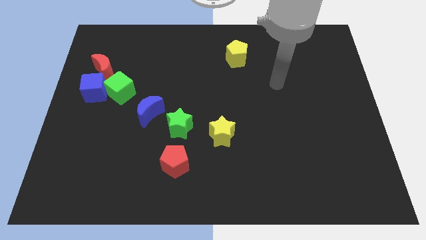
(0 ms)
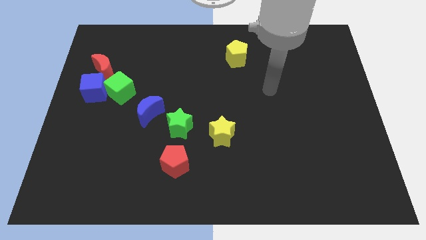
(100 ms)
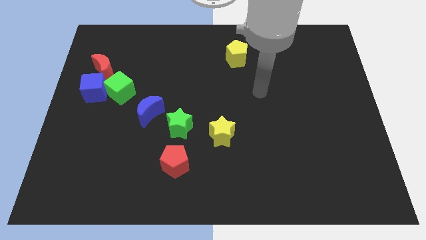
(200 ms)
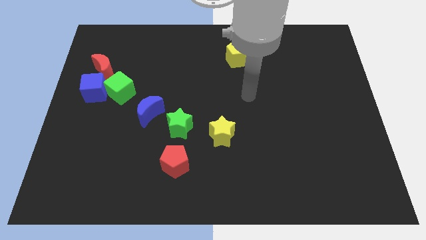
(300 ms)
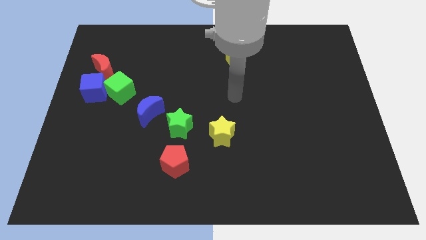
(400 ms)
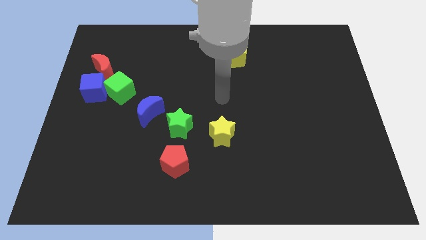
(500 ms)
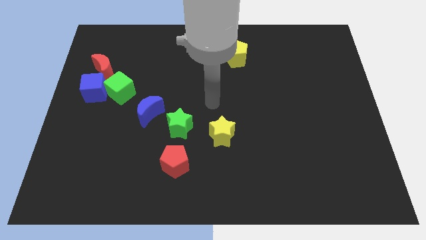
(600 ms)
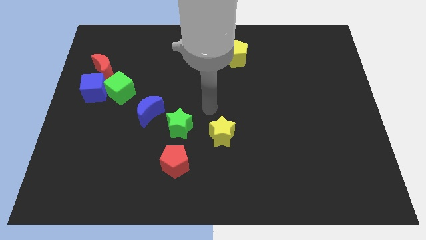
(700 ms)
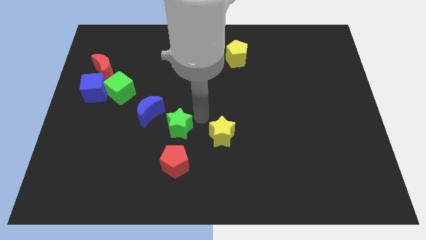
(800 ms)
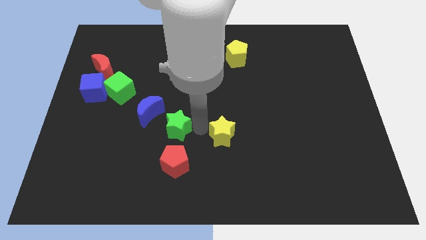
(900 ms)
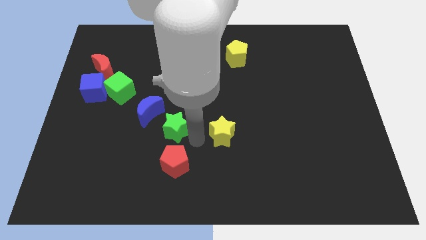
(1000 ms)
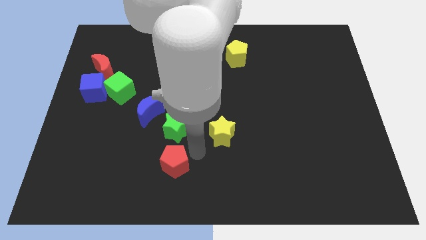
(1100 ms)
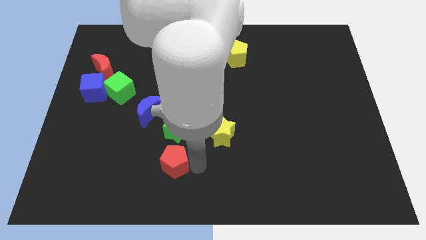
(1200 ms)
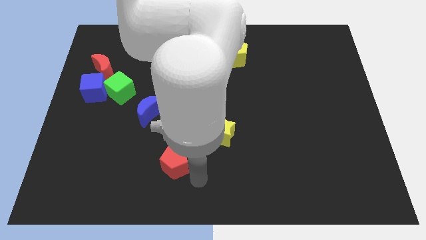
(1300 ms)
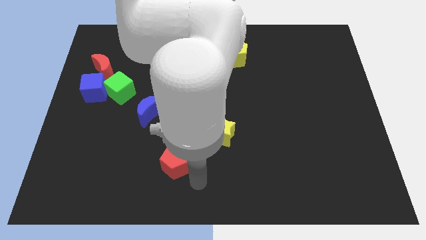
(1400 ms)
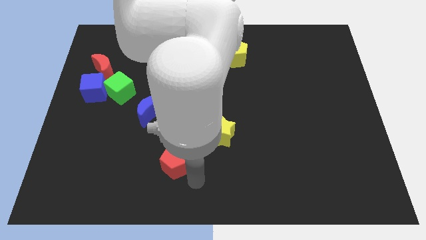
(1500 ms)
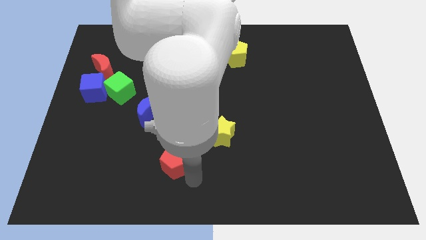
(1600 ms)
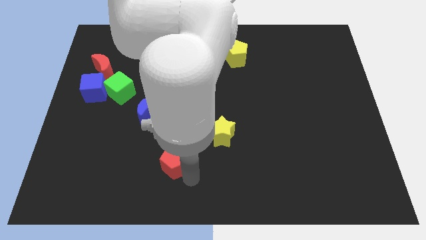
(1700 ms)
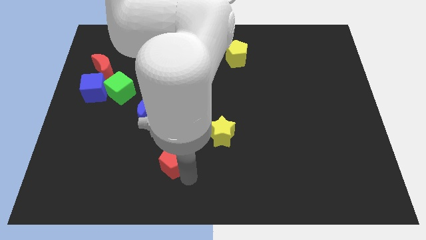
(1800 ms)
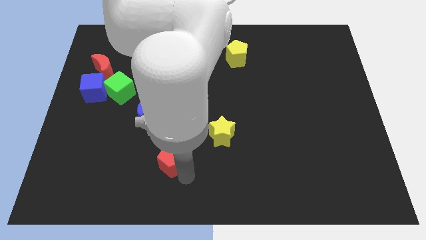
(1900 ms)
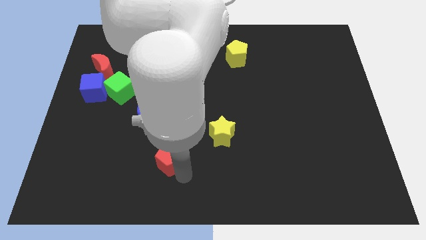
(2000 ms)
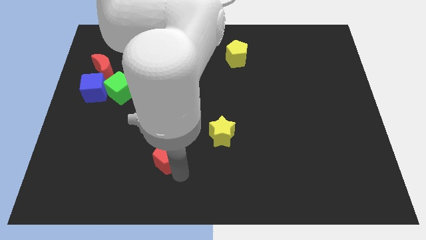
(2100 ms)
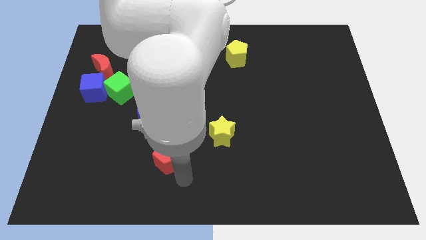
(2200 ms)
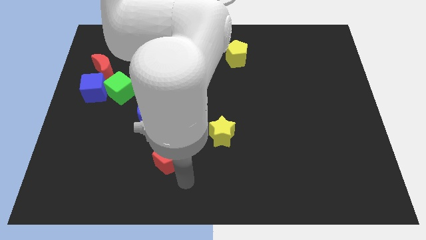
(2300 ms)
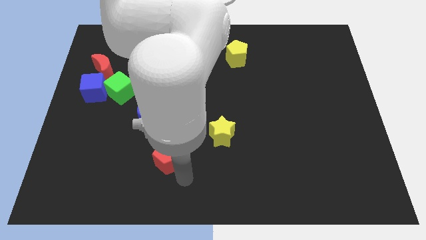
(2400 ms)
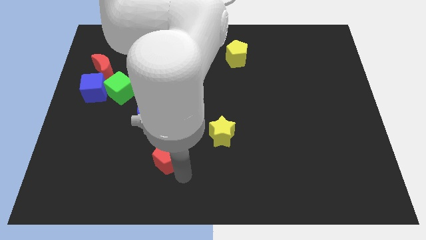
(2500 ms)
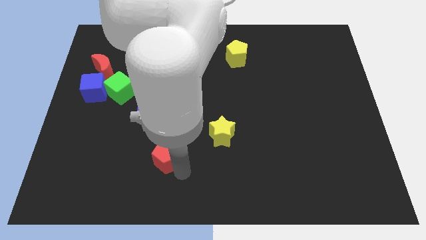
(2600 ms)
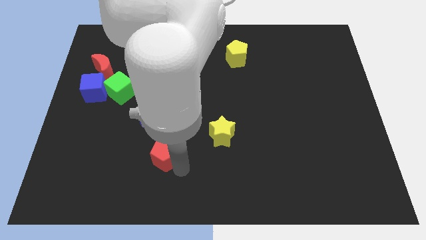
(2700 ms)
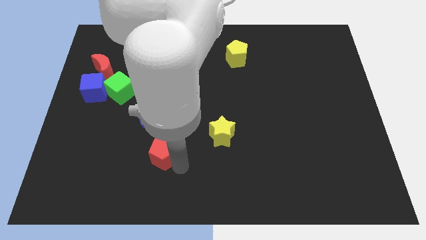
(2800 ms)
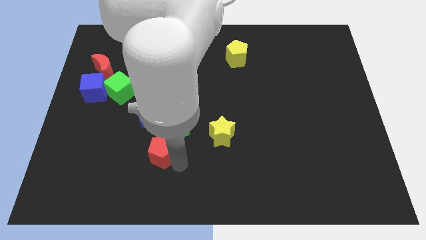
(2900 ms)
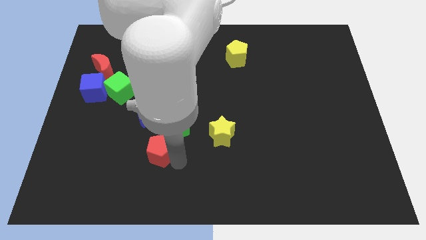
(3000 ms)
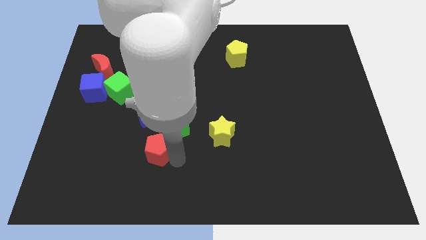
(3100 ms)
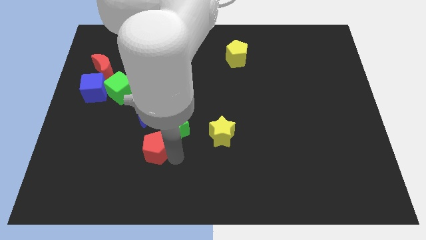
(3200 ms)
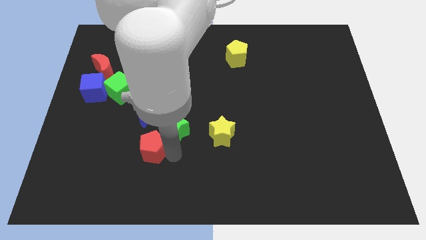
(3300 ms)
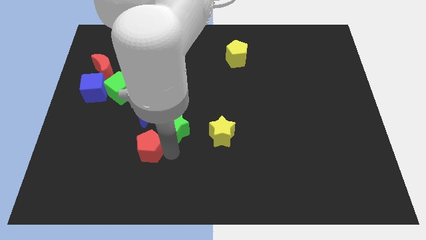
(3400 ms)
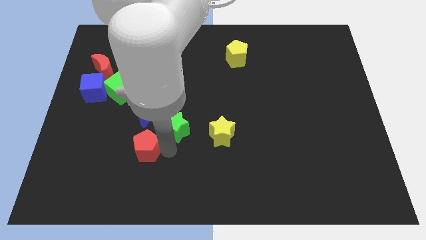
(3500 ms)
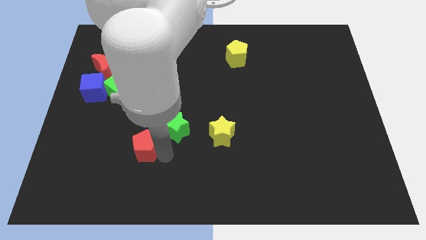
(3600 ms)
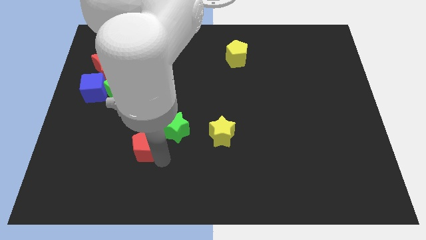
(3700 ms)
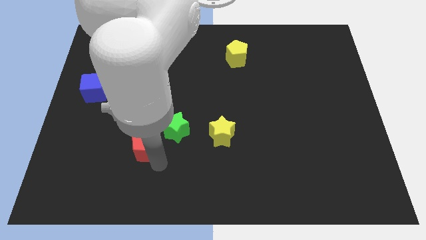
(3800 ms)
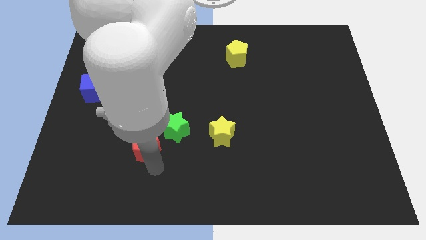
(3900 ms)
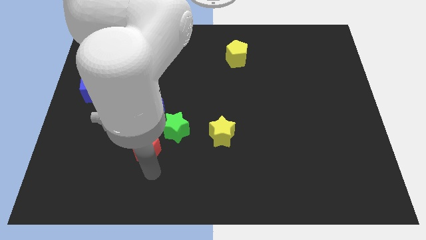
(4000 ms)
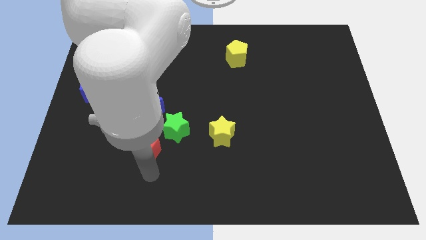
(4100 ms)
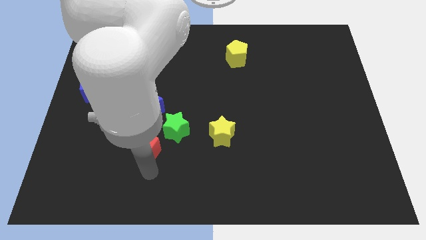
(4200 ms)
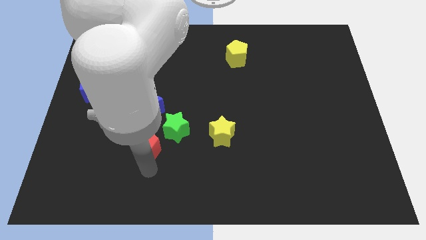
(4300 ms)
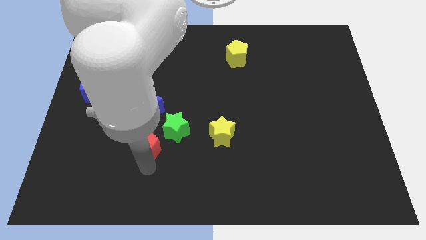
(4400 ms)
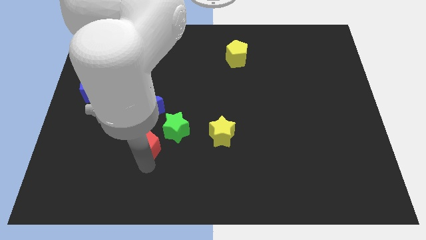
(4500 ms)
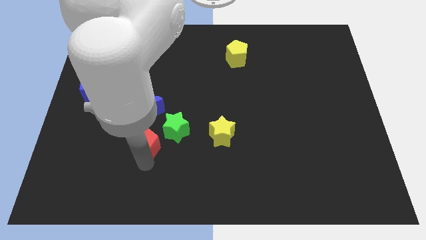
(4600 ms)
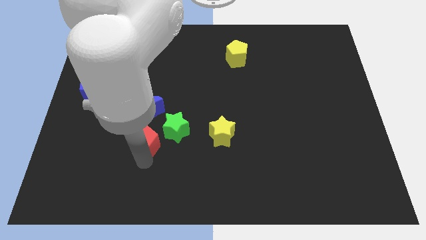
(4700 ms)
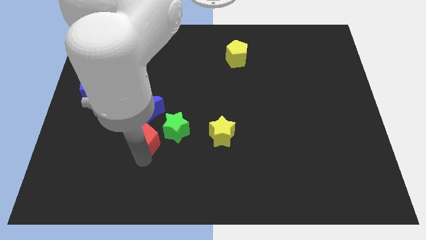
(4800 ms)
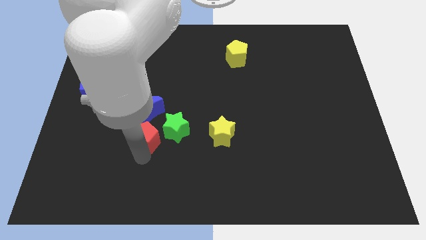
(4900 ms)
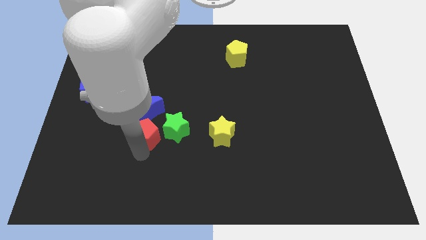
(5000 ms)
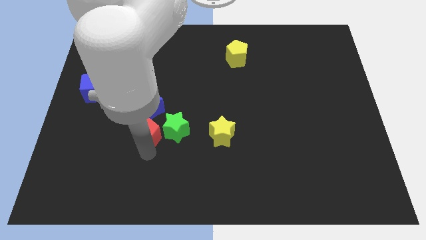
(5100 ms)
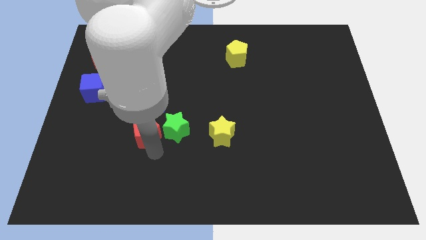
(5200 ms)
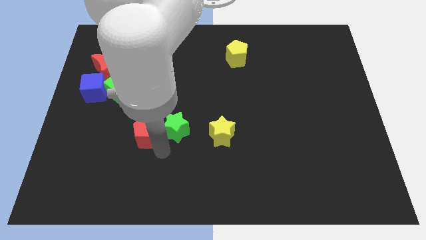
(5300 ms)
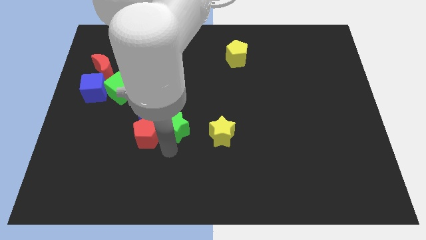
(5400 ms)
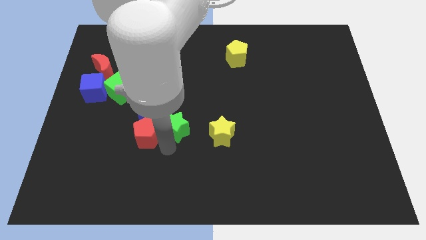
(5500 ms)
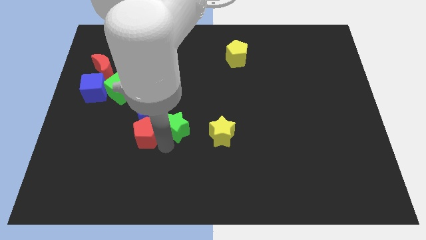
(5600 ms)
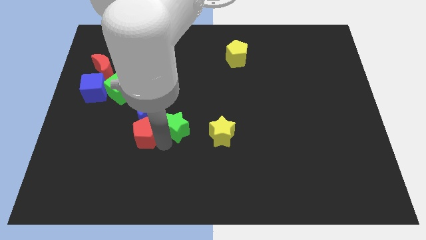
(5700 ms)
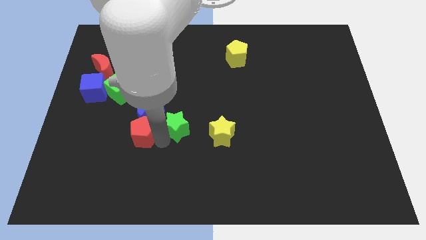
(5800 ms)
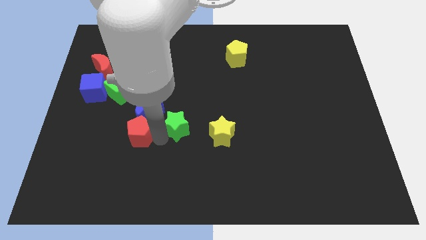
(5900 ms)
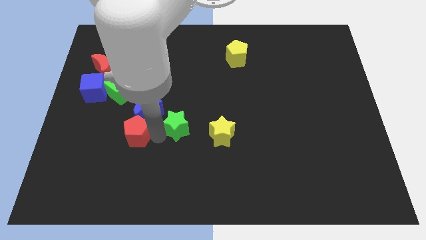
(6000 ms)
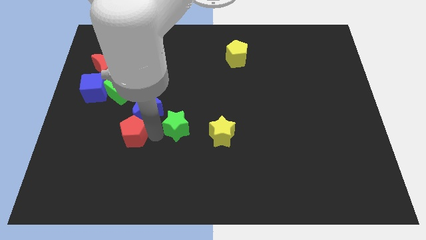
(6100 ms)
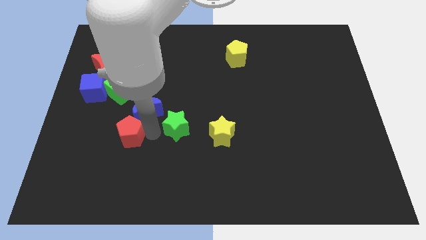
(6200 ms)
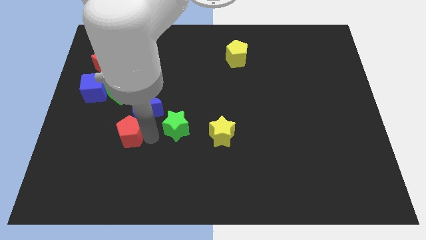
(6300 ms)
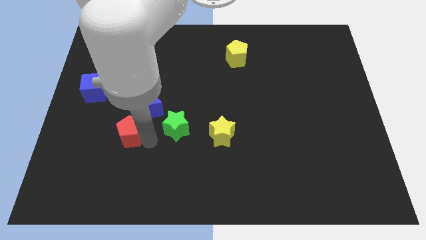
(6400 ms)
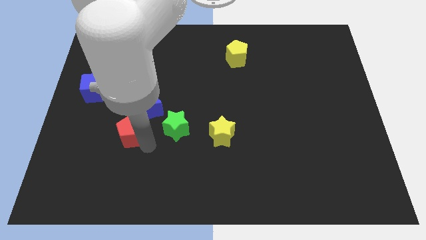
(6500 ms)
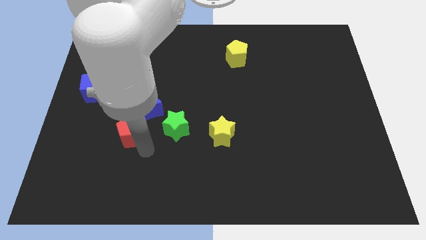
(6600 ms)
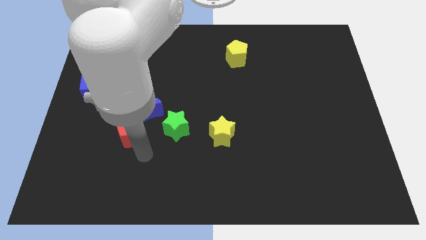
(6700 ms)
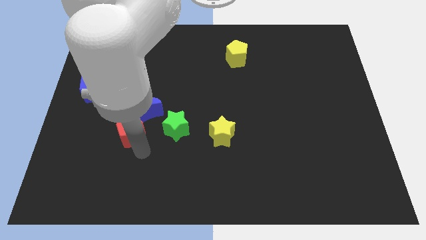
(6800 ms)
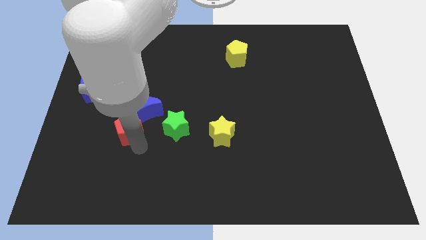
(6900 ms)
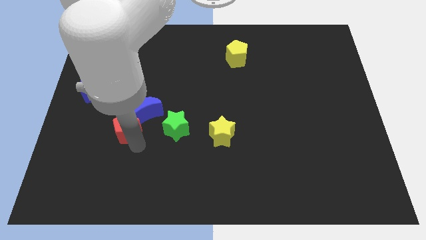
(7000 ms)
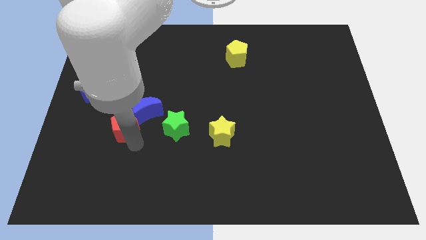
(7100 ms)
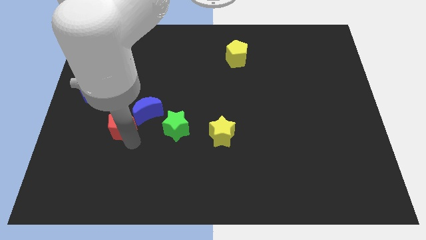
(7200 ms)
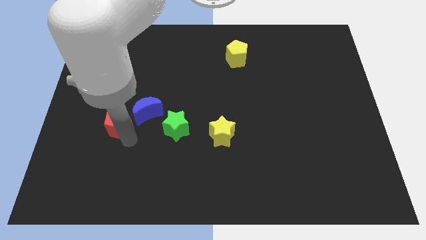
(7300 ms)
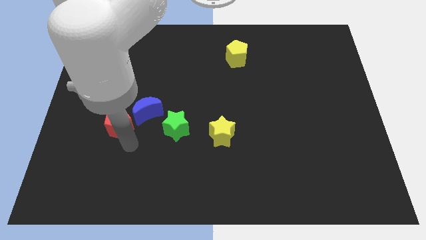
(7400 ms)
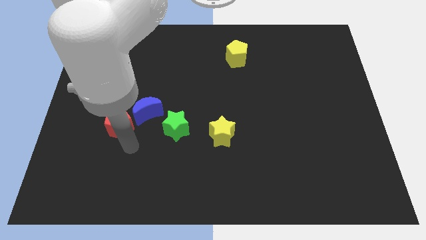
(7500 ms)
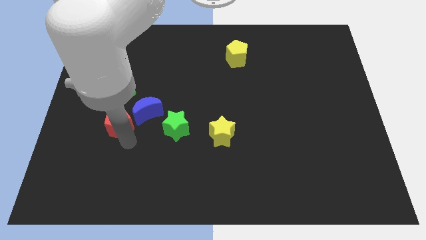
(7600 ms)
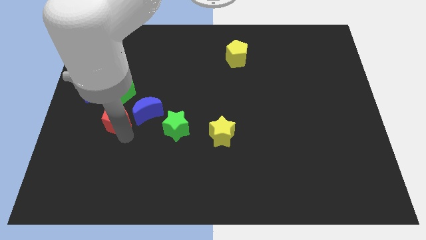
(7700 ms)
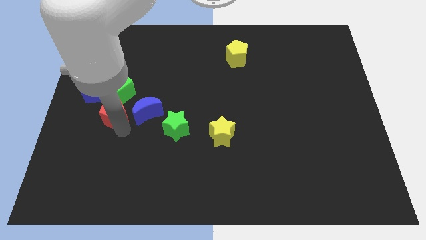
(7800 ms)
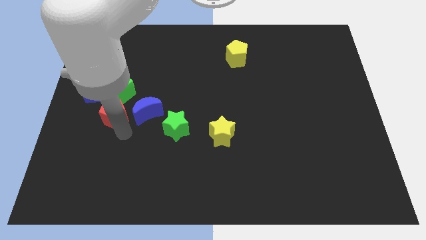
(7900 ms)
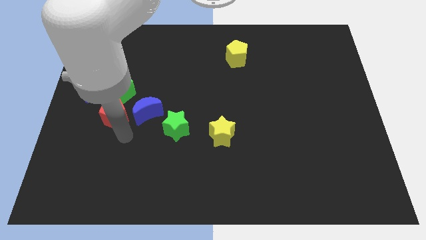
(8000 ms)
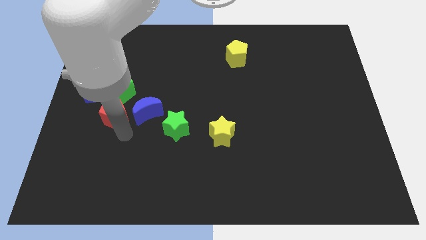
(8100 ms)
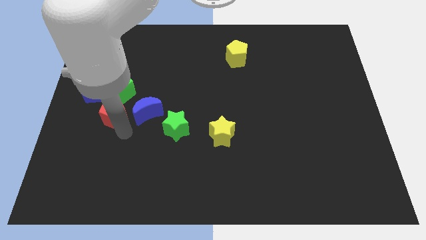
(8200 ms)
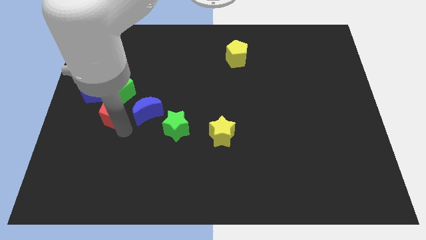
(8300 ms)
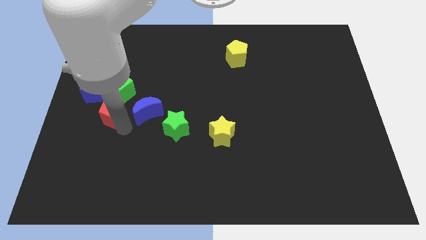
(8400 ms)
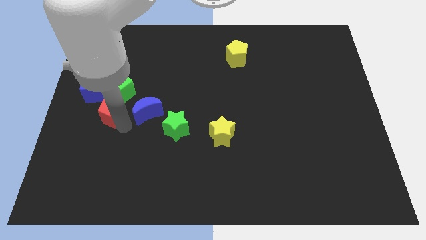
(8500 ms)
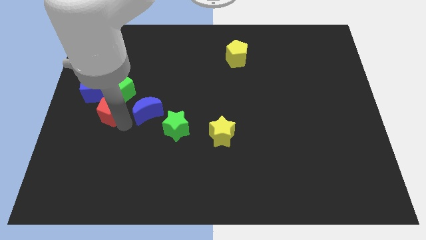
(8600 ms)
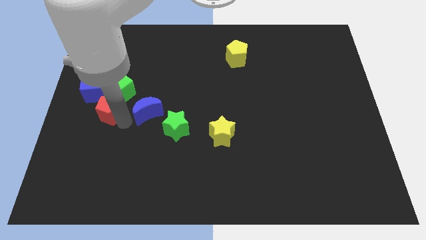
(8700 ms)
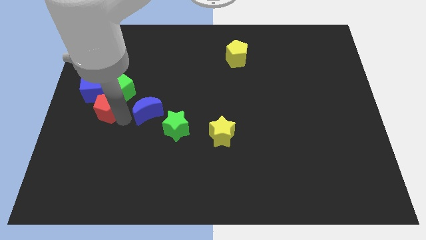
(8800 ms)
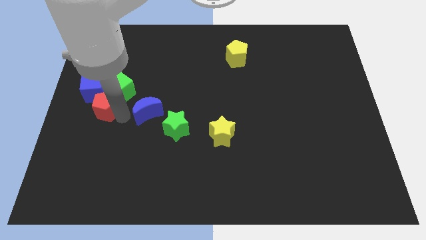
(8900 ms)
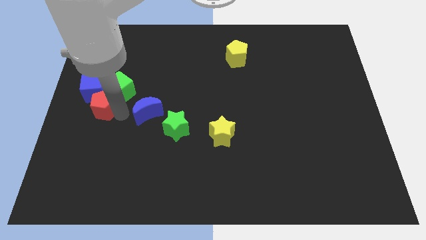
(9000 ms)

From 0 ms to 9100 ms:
push the red pentagon to the blue cube
